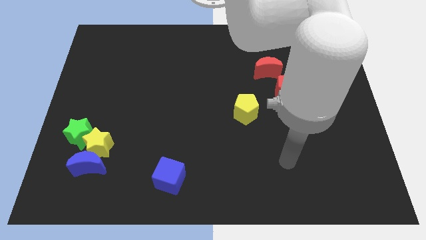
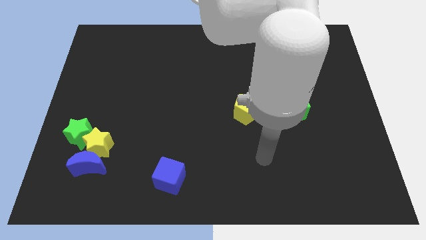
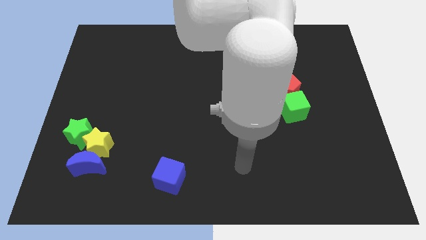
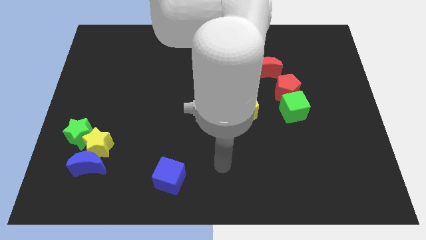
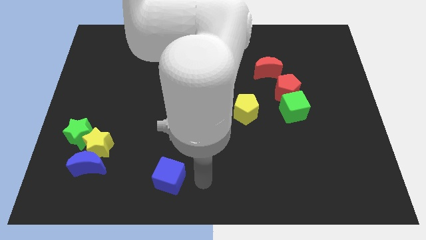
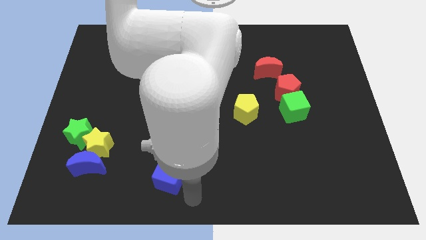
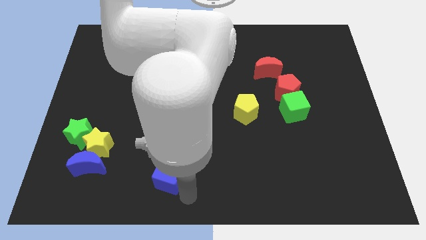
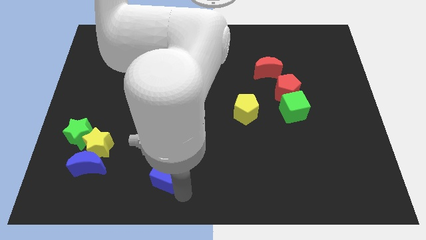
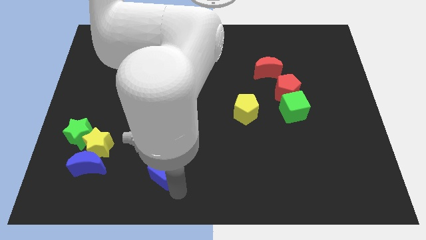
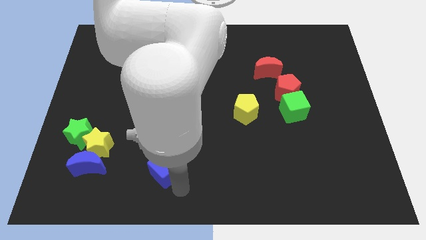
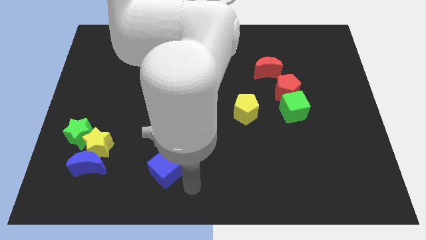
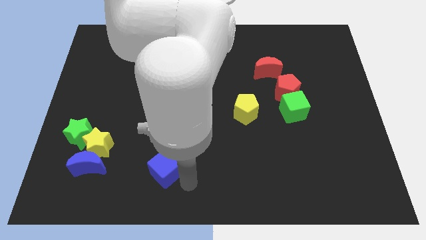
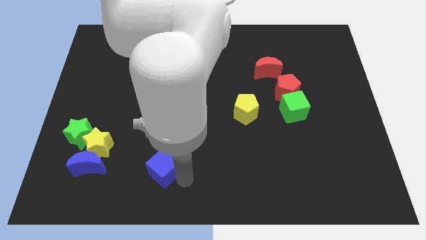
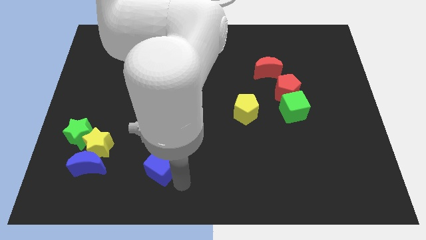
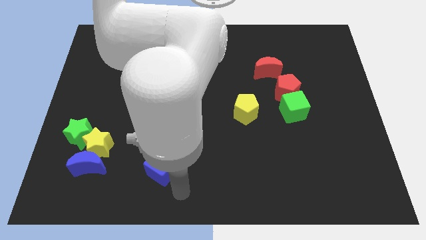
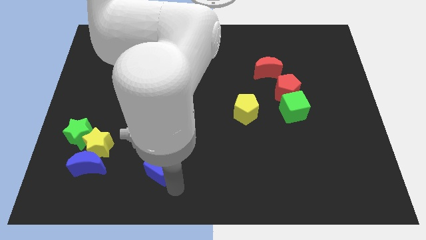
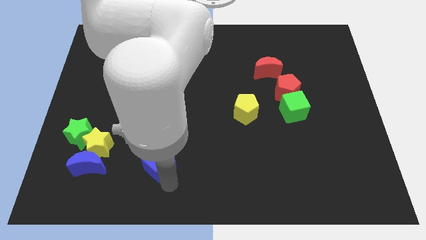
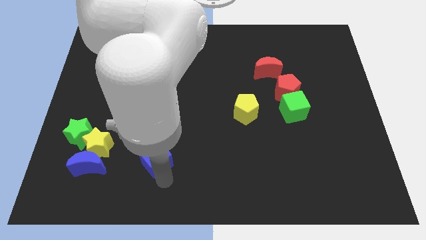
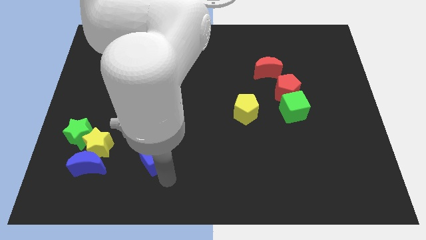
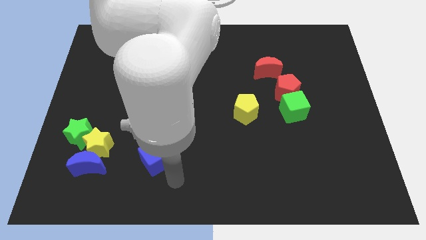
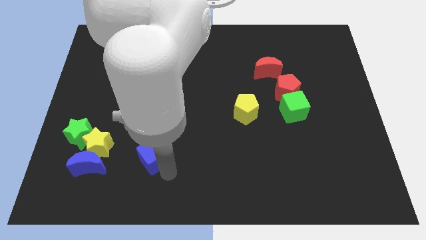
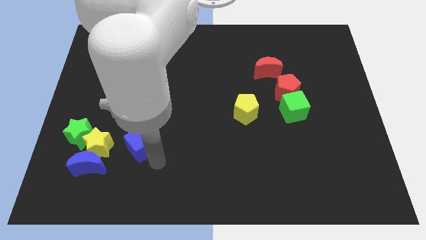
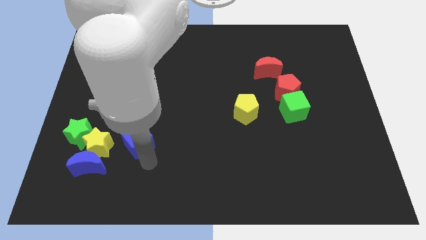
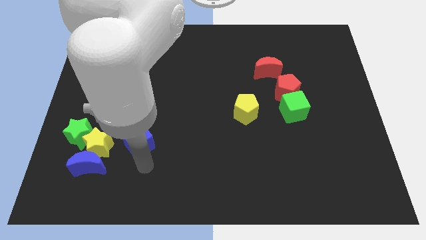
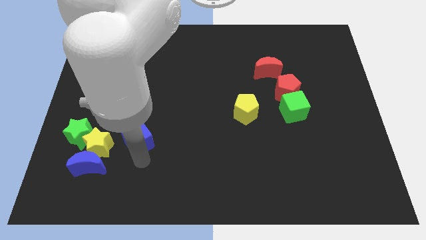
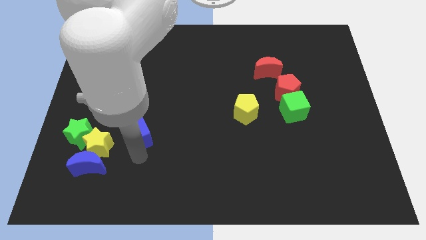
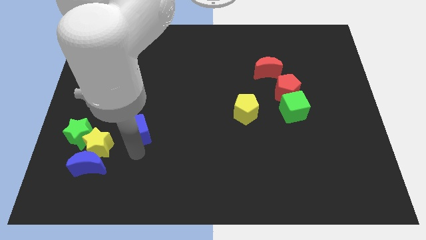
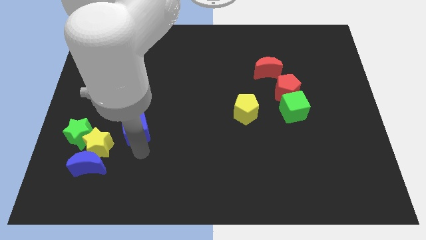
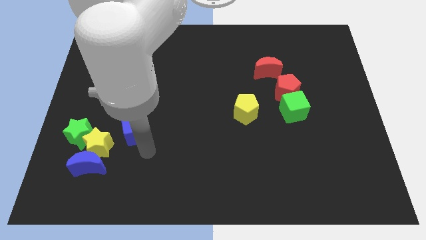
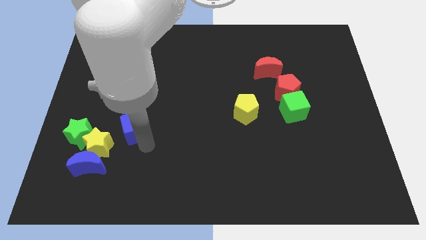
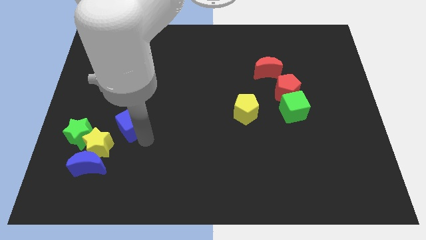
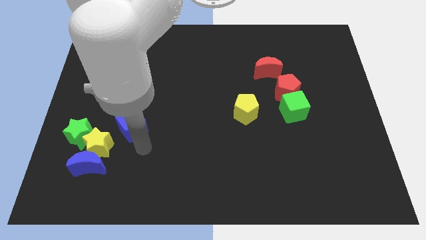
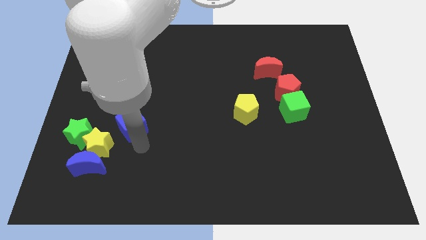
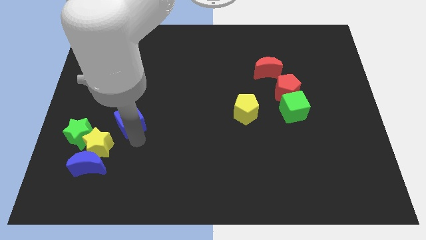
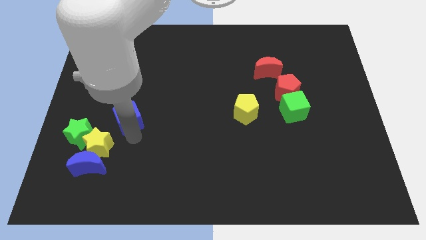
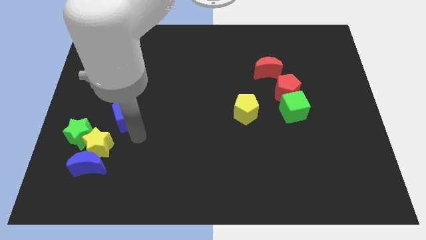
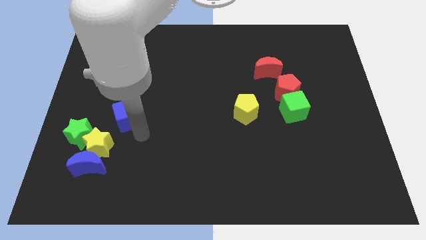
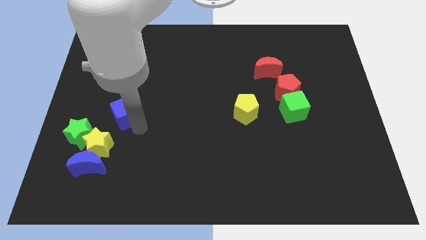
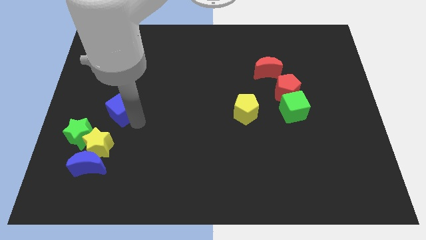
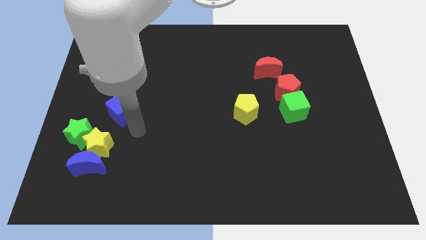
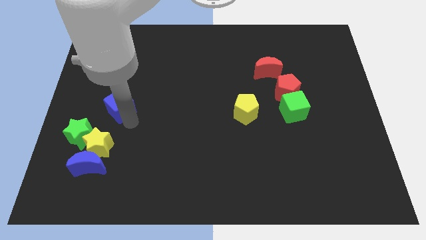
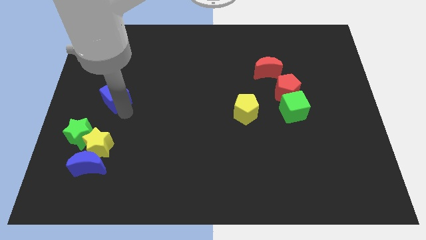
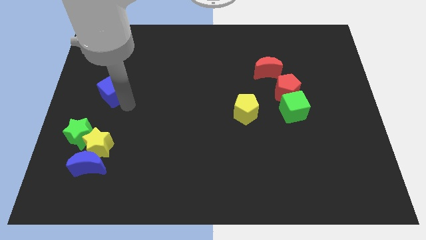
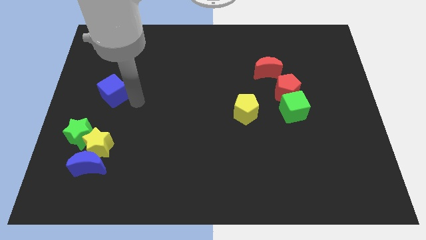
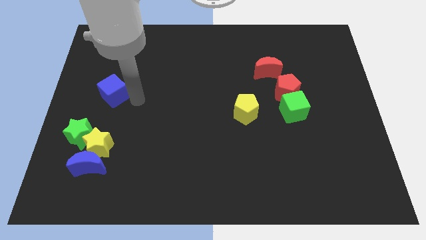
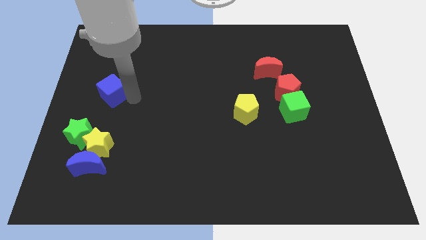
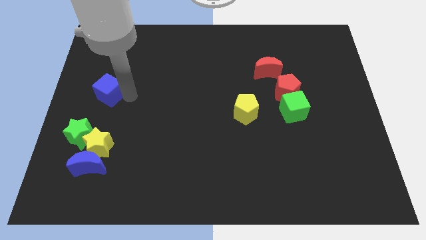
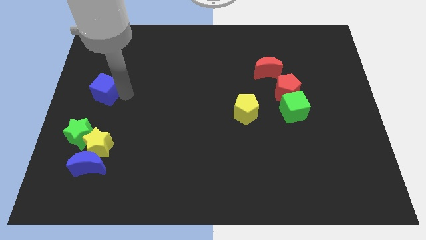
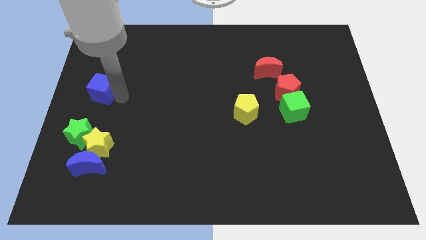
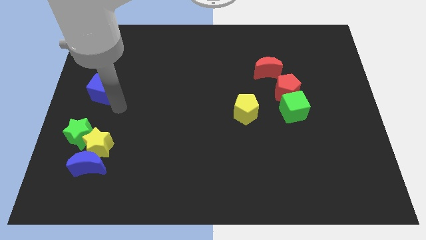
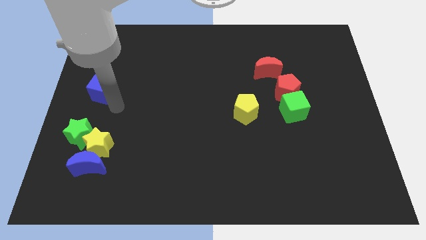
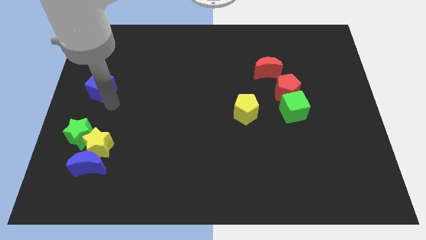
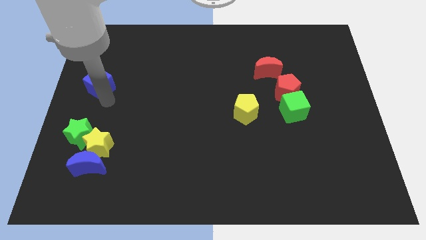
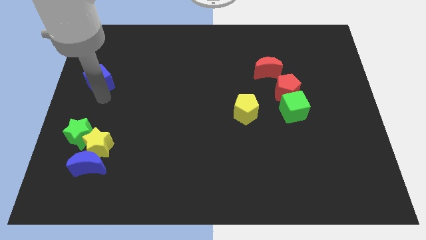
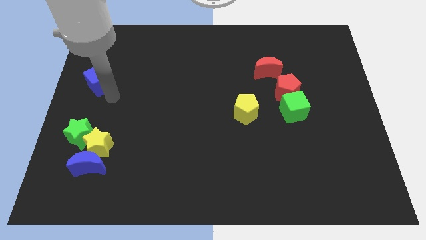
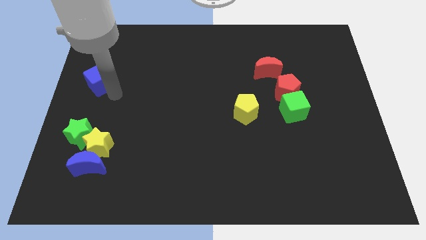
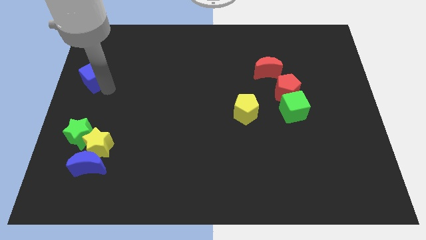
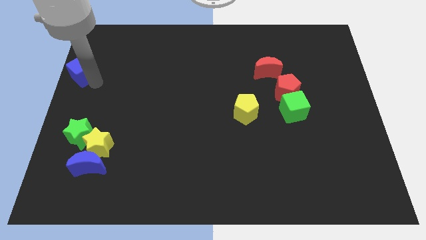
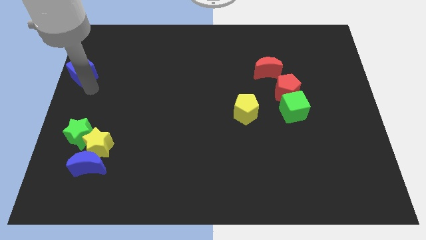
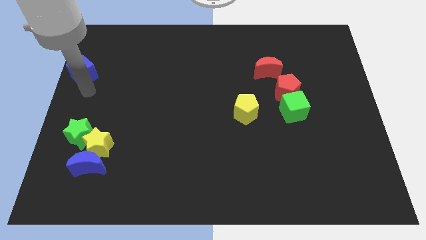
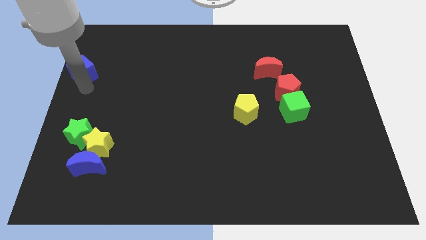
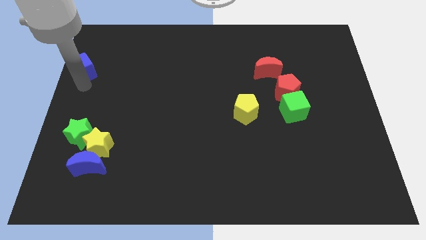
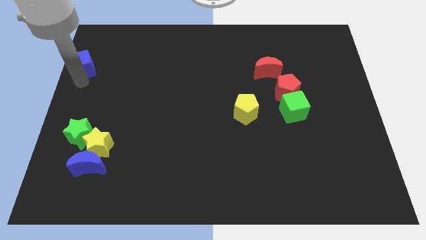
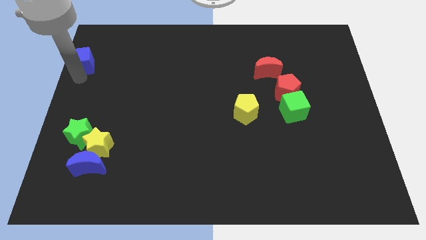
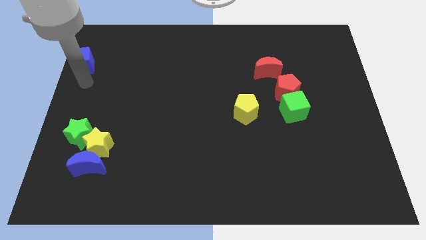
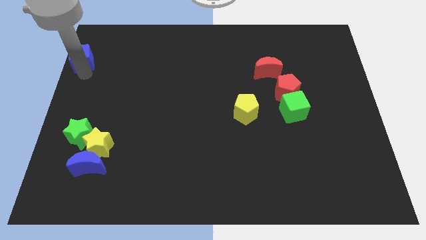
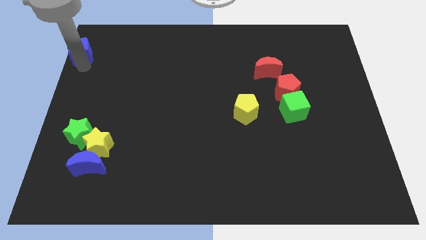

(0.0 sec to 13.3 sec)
push the blue cube to the upper left corner
